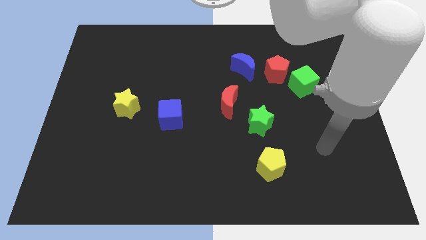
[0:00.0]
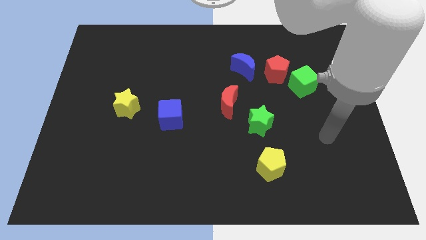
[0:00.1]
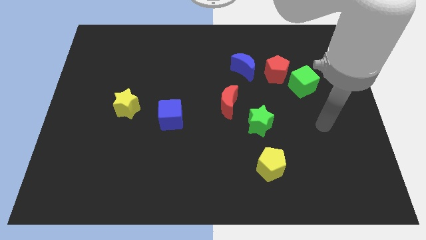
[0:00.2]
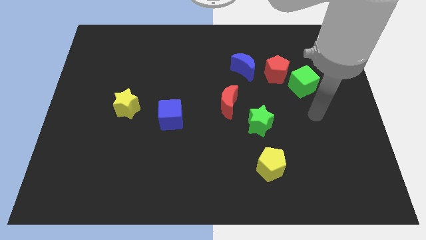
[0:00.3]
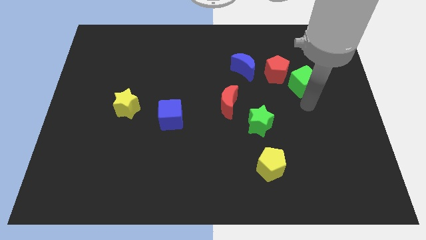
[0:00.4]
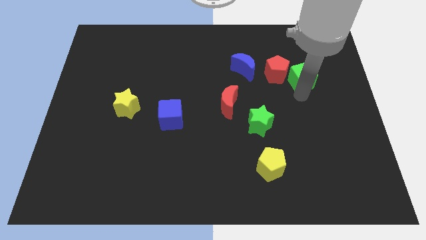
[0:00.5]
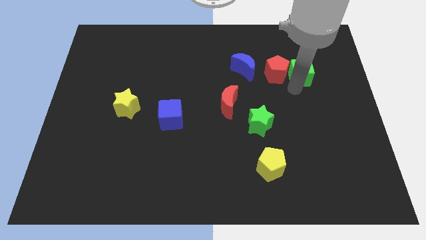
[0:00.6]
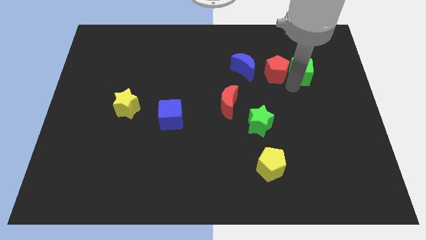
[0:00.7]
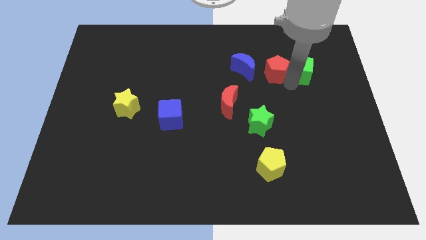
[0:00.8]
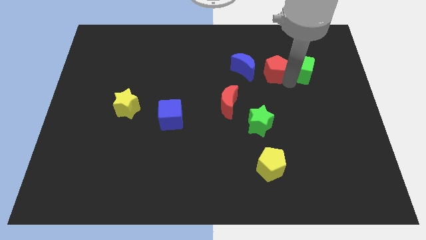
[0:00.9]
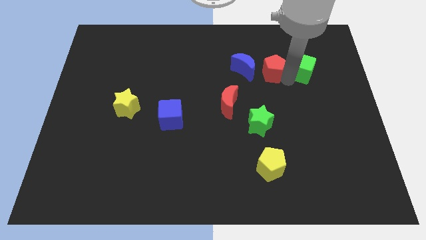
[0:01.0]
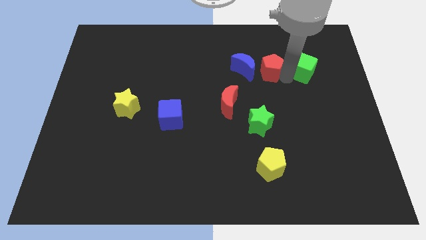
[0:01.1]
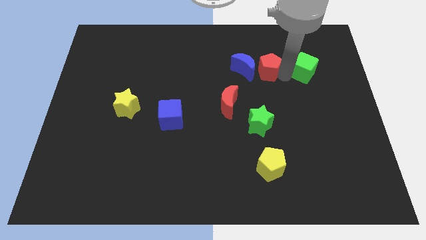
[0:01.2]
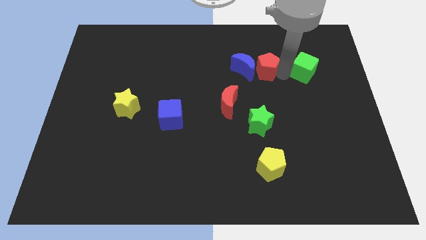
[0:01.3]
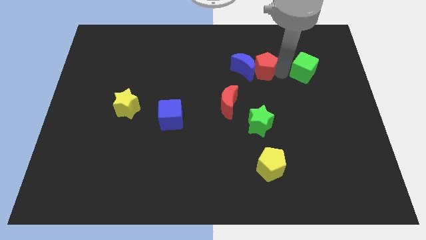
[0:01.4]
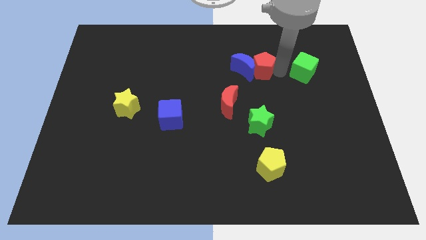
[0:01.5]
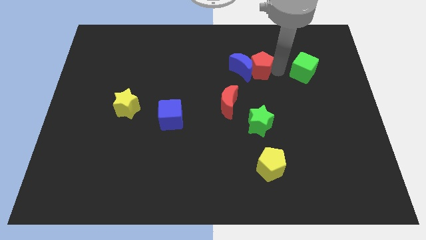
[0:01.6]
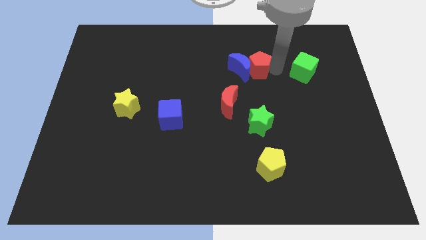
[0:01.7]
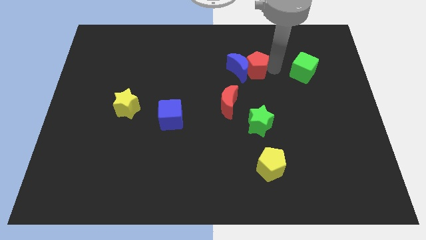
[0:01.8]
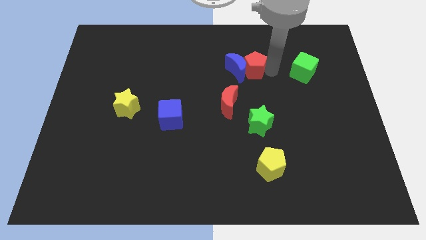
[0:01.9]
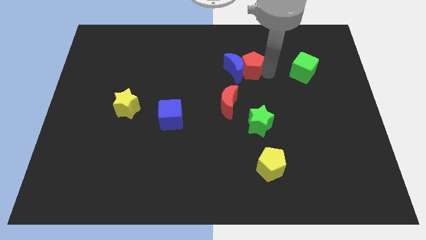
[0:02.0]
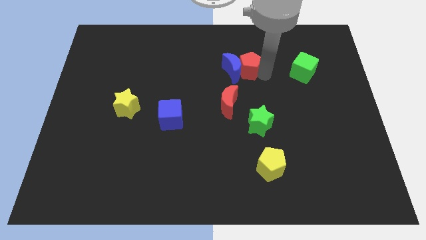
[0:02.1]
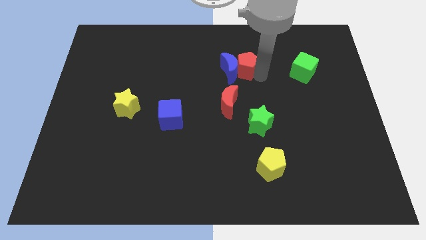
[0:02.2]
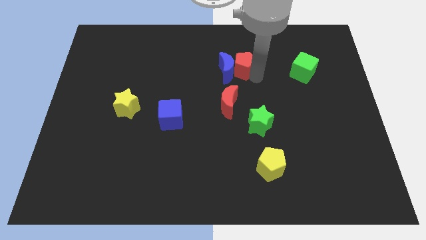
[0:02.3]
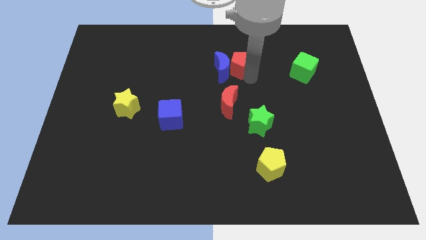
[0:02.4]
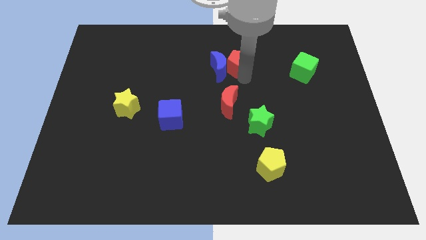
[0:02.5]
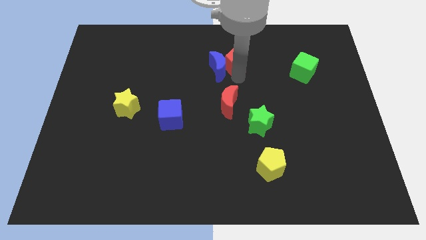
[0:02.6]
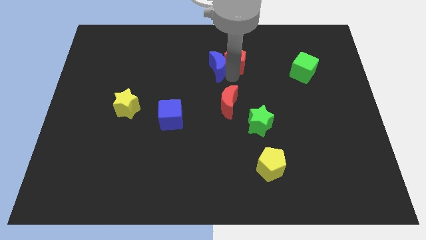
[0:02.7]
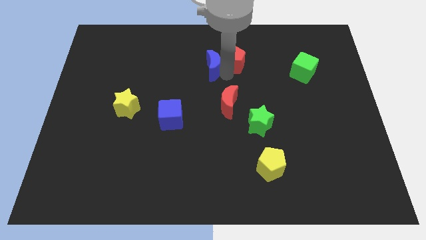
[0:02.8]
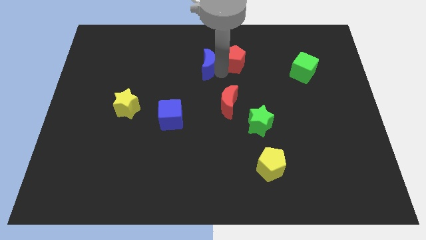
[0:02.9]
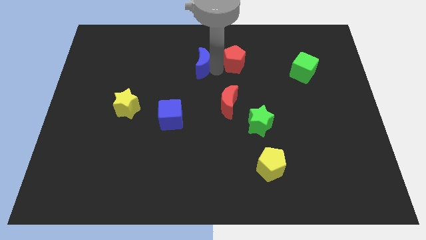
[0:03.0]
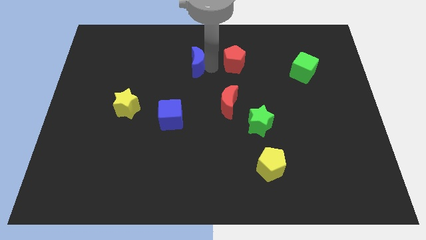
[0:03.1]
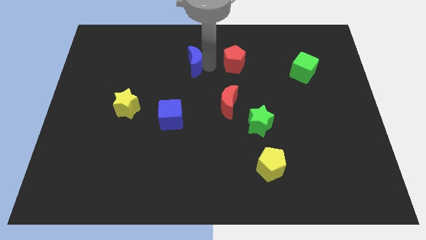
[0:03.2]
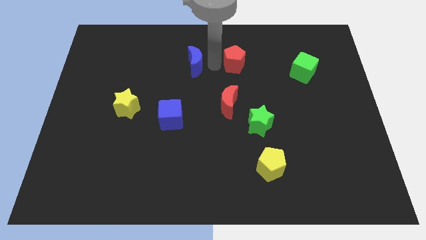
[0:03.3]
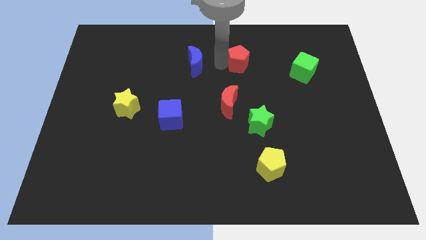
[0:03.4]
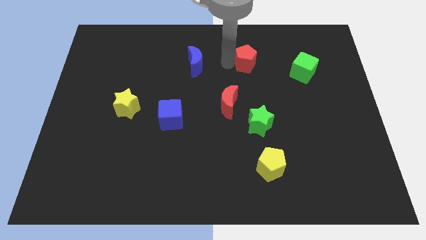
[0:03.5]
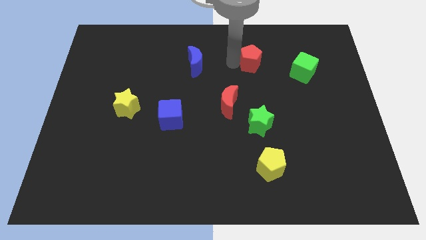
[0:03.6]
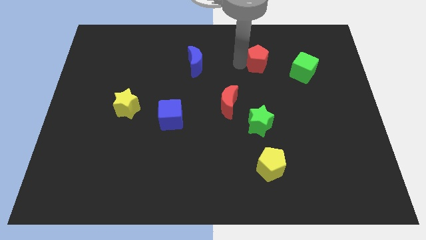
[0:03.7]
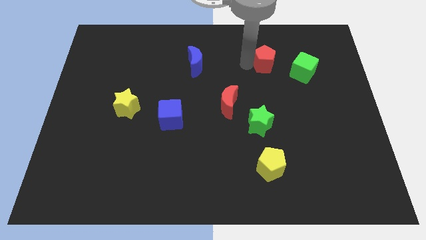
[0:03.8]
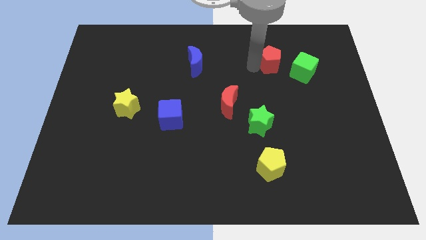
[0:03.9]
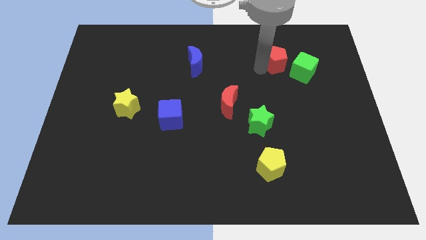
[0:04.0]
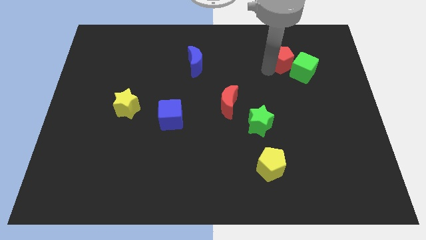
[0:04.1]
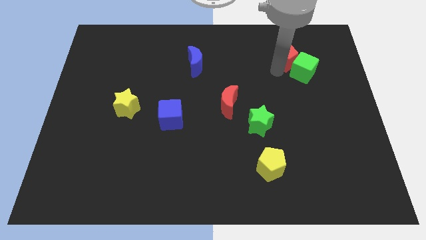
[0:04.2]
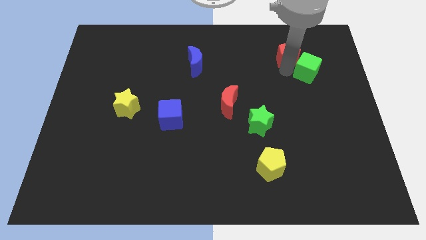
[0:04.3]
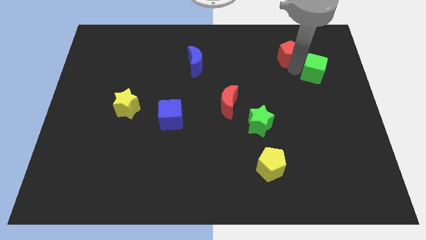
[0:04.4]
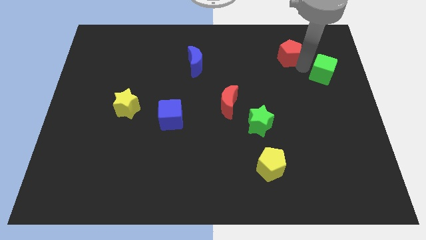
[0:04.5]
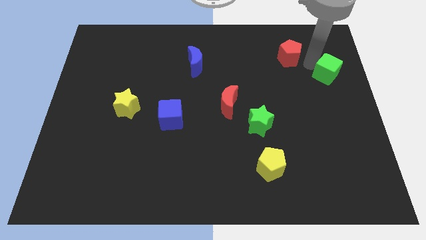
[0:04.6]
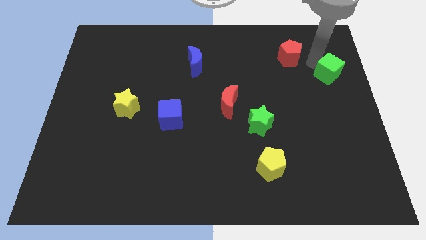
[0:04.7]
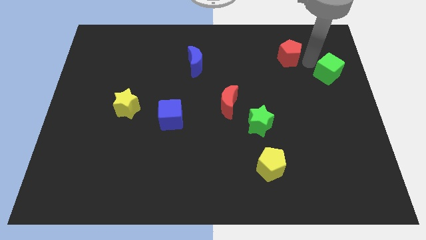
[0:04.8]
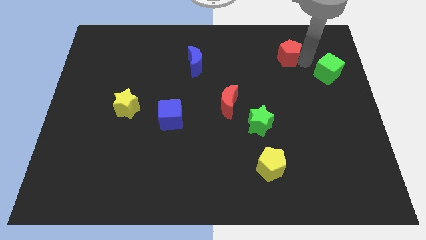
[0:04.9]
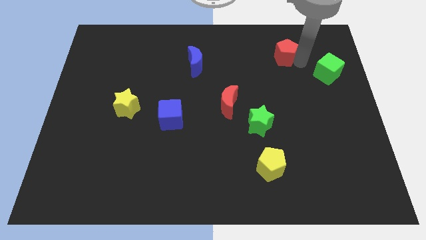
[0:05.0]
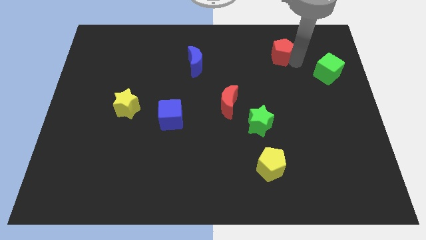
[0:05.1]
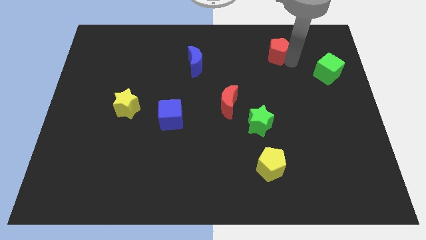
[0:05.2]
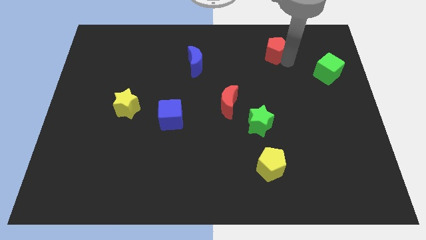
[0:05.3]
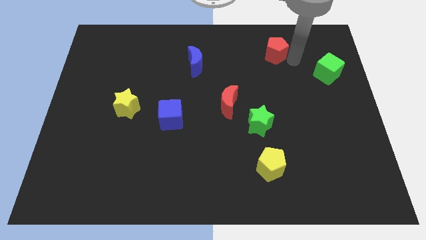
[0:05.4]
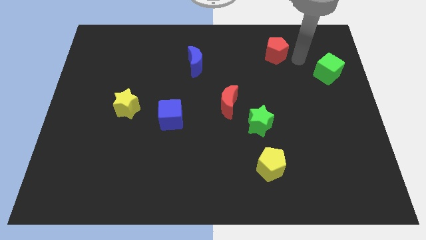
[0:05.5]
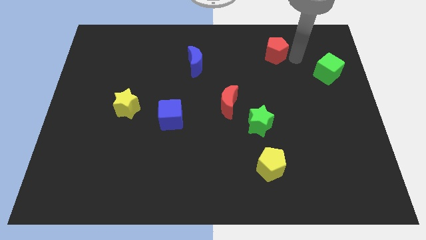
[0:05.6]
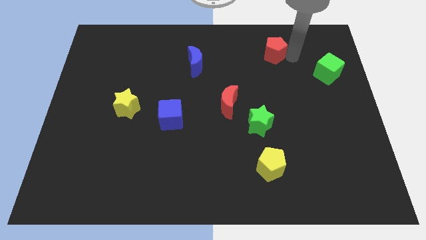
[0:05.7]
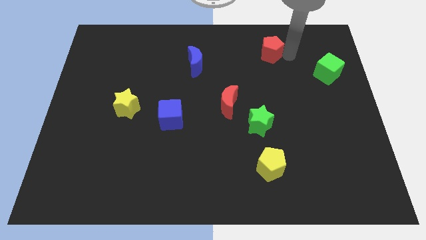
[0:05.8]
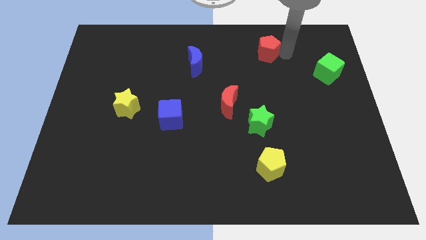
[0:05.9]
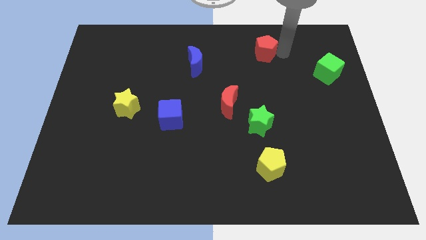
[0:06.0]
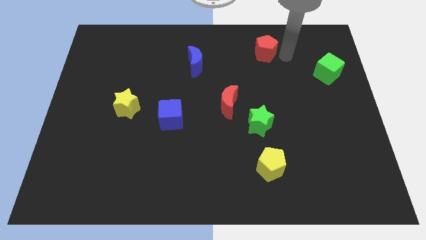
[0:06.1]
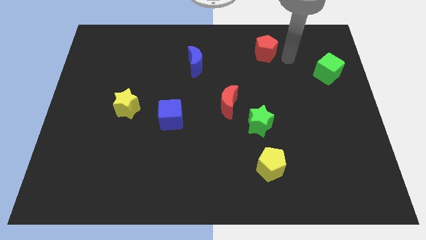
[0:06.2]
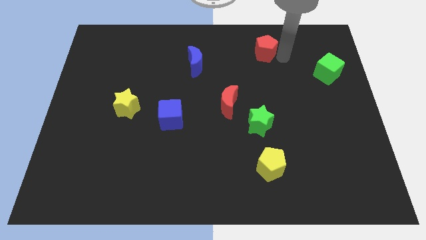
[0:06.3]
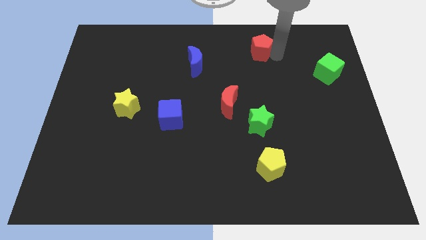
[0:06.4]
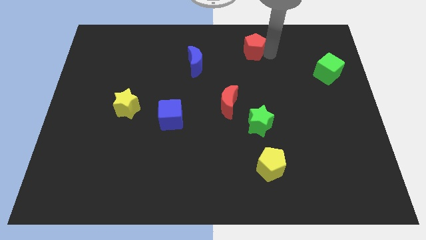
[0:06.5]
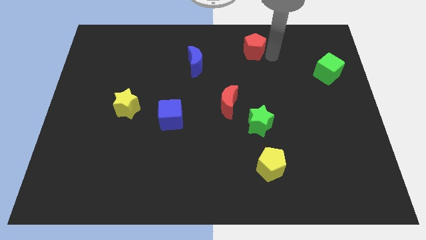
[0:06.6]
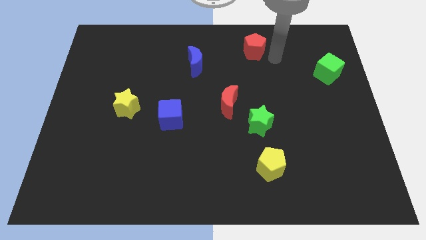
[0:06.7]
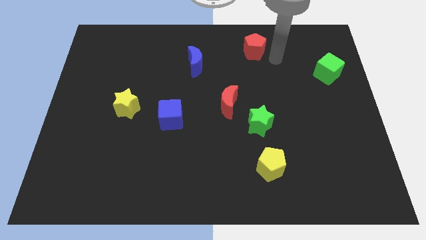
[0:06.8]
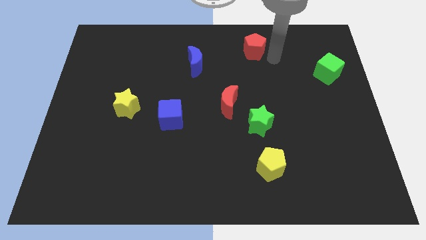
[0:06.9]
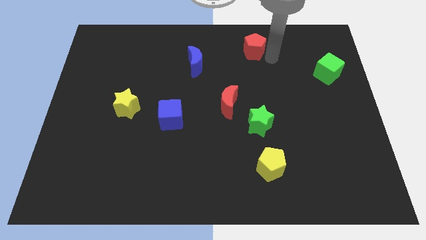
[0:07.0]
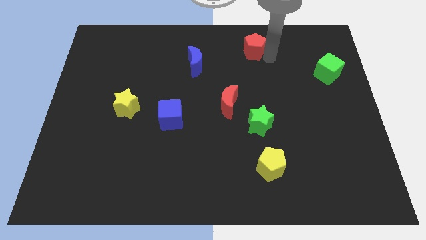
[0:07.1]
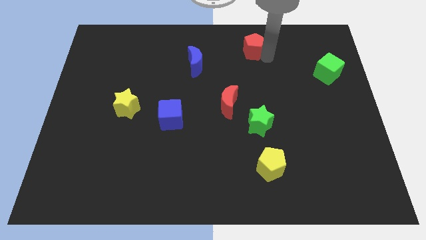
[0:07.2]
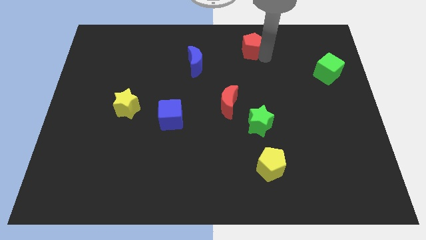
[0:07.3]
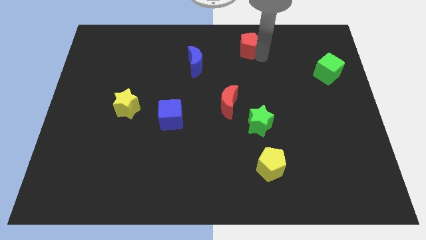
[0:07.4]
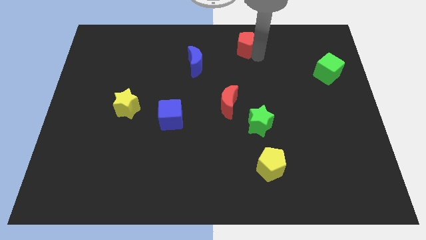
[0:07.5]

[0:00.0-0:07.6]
slide the red pentagon to the top
